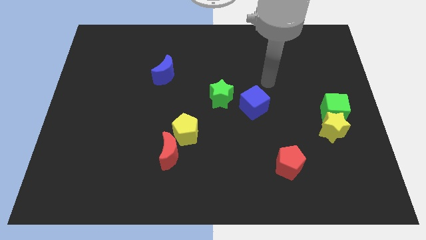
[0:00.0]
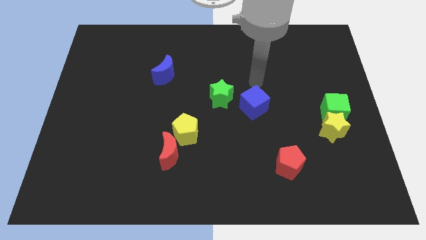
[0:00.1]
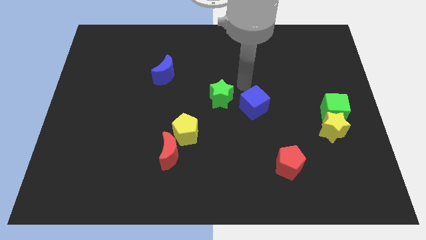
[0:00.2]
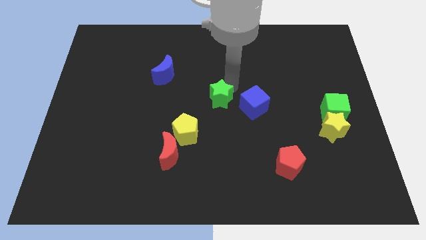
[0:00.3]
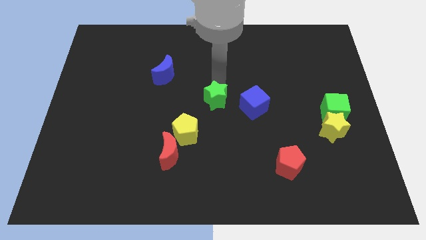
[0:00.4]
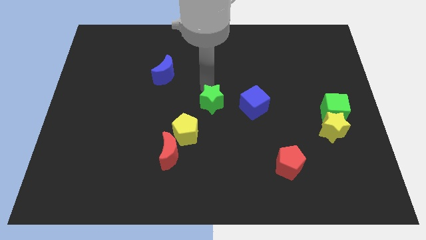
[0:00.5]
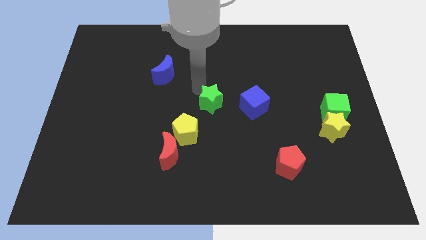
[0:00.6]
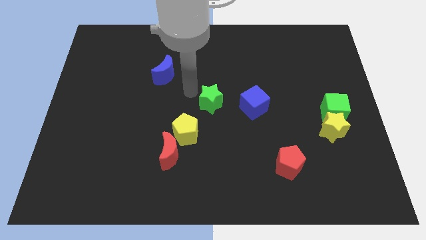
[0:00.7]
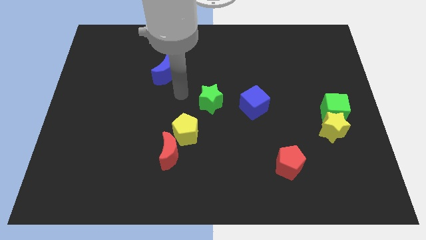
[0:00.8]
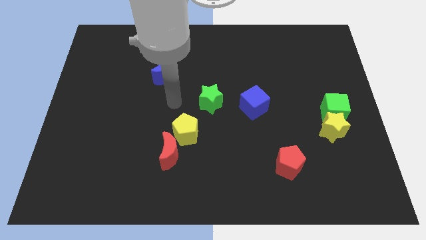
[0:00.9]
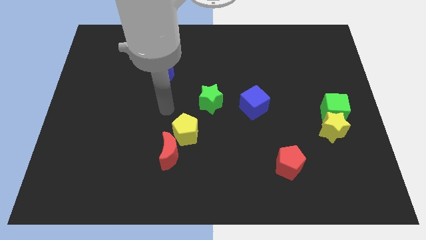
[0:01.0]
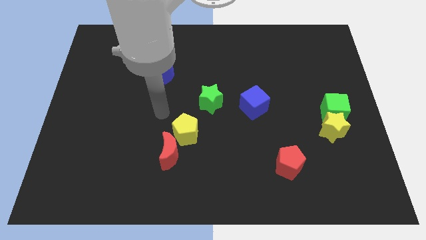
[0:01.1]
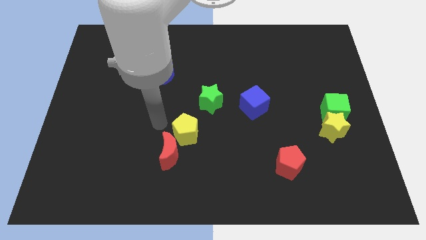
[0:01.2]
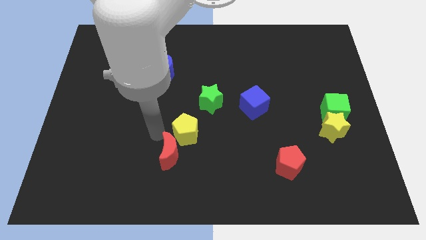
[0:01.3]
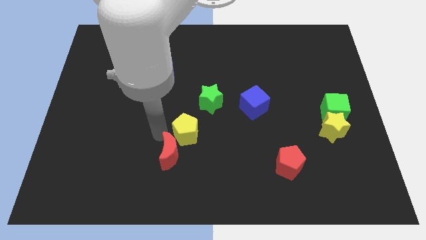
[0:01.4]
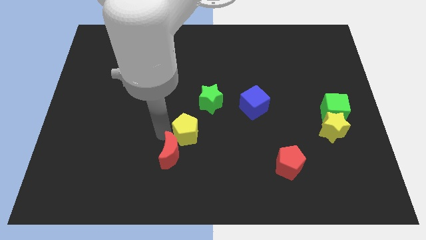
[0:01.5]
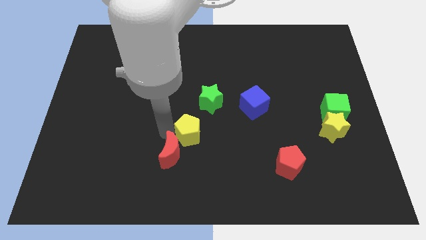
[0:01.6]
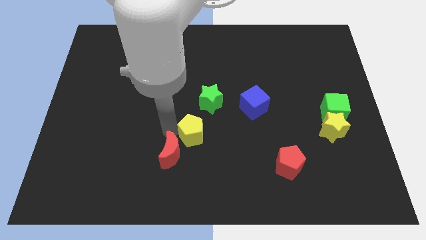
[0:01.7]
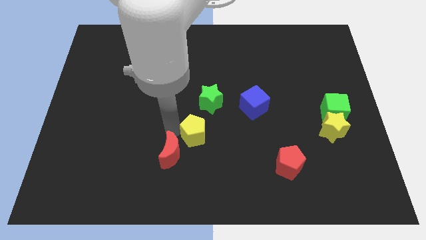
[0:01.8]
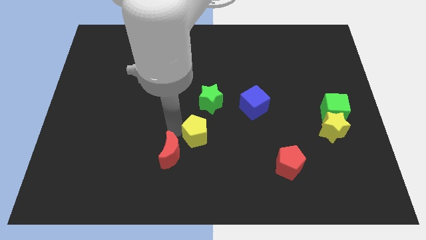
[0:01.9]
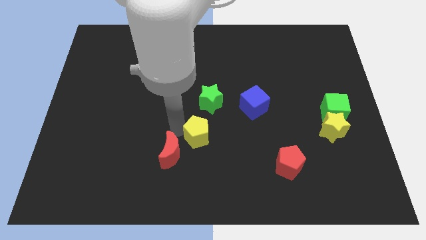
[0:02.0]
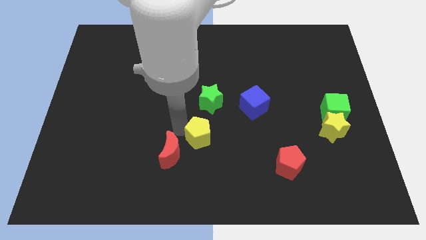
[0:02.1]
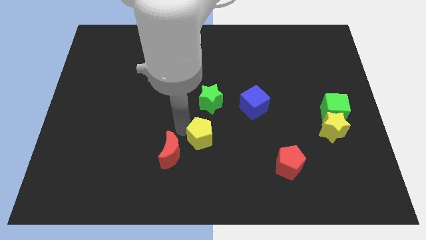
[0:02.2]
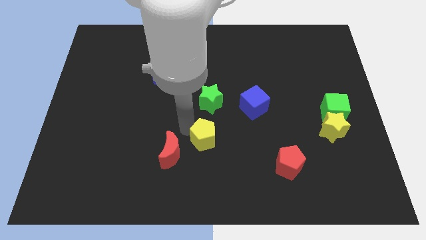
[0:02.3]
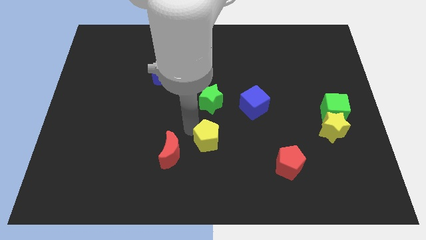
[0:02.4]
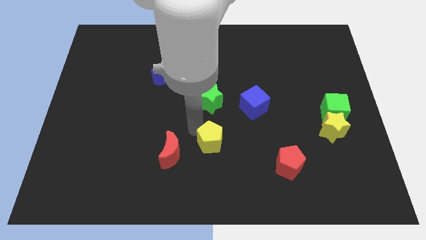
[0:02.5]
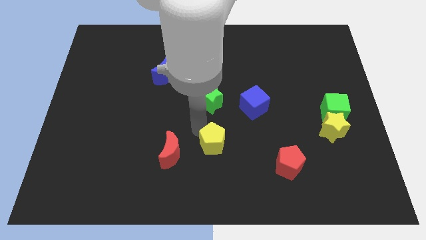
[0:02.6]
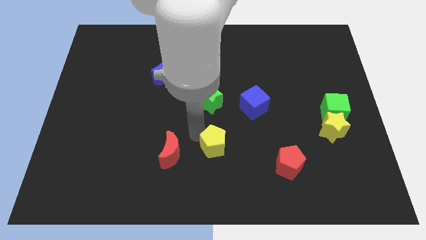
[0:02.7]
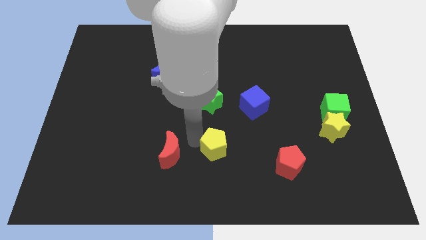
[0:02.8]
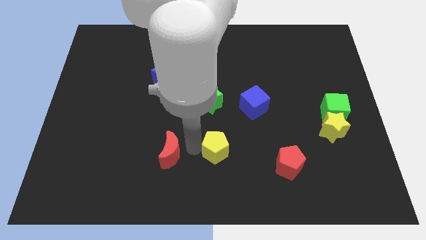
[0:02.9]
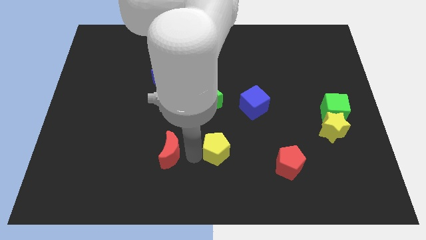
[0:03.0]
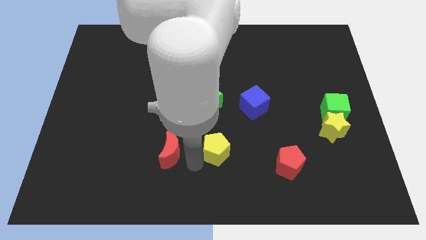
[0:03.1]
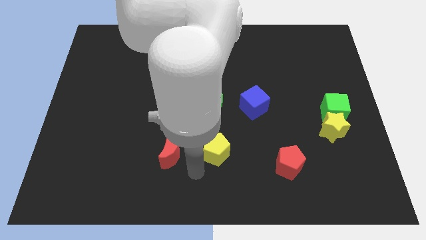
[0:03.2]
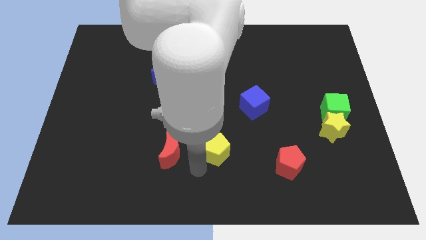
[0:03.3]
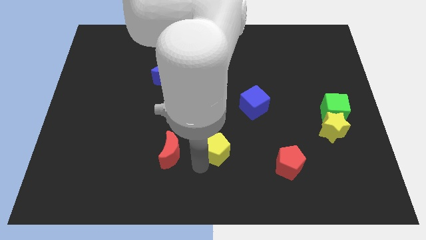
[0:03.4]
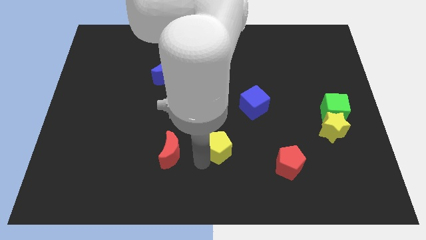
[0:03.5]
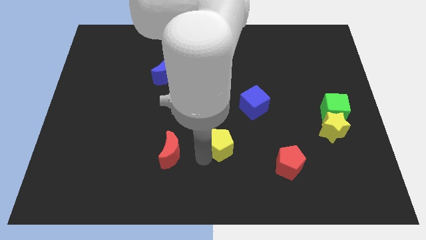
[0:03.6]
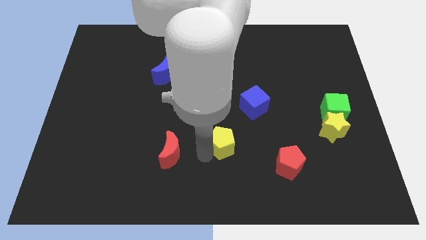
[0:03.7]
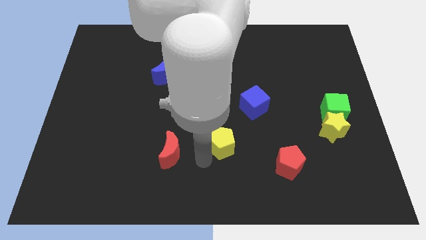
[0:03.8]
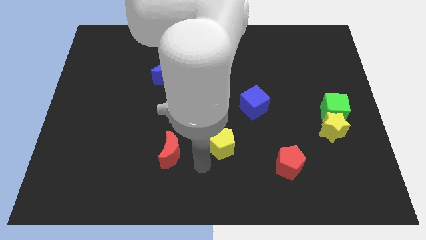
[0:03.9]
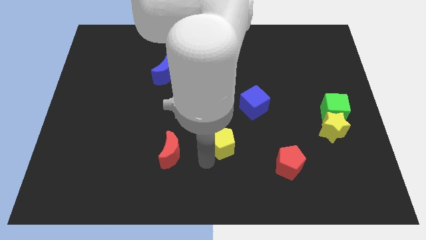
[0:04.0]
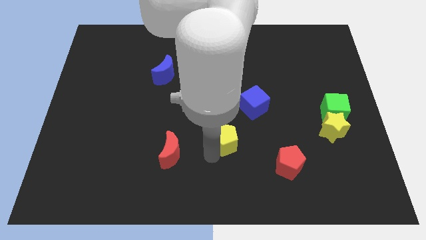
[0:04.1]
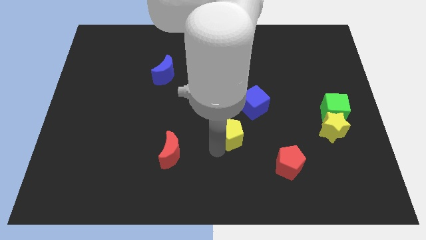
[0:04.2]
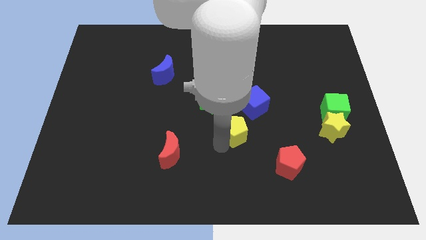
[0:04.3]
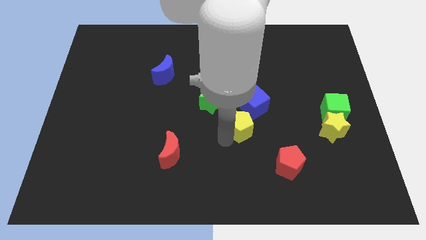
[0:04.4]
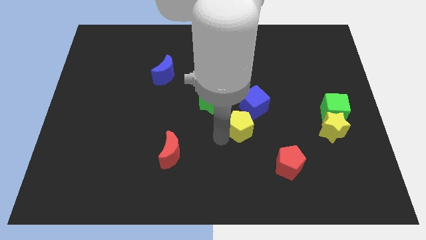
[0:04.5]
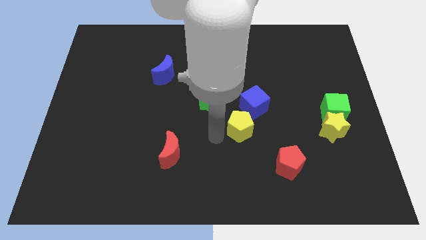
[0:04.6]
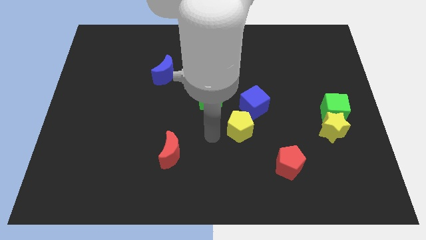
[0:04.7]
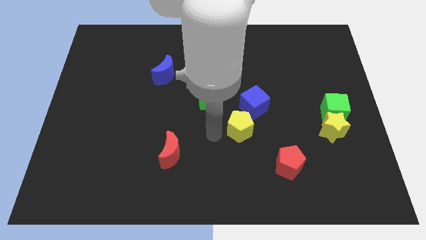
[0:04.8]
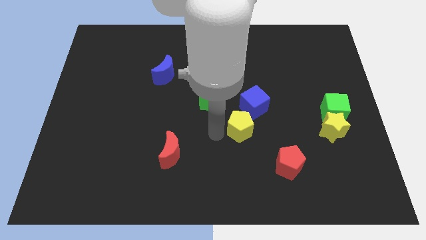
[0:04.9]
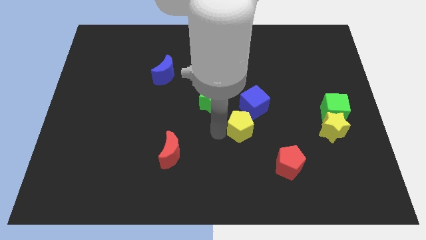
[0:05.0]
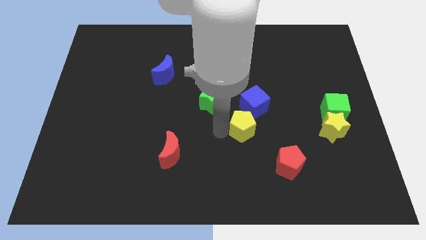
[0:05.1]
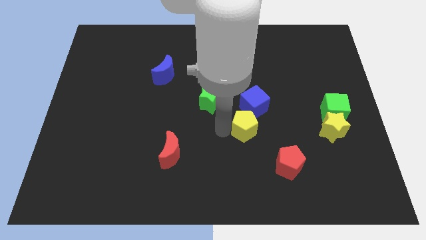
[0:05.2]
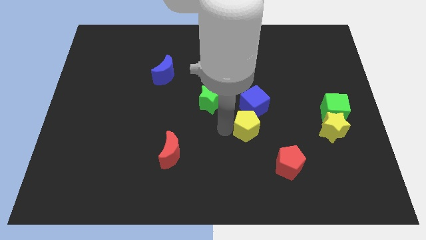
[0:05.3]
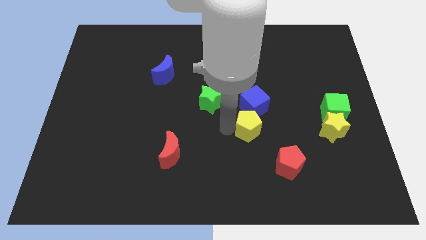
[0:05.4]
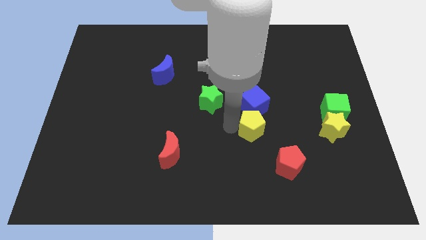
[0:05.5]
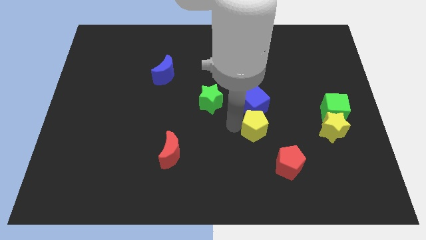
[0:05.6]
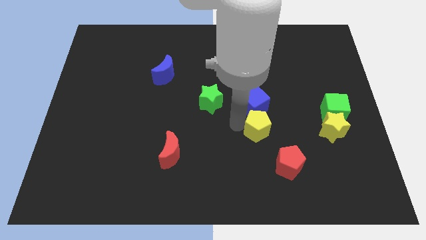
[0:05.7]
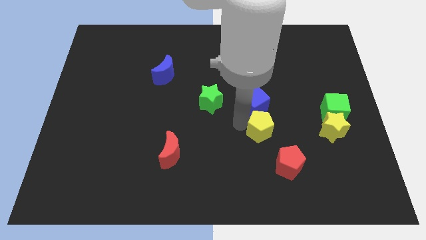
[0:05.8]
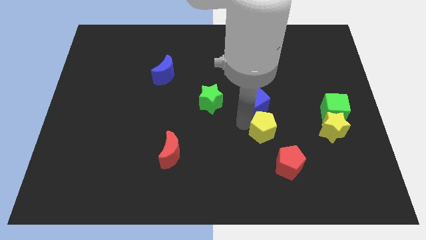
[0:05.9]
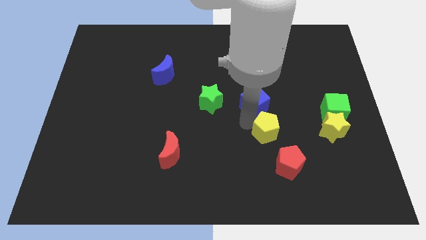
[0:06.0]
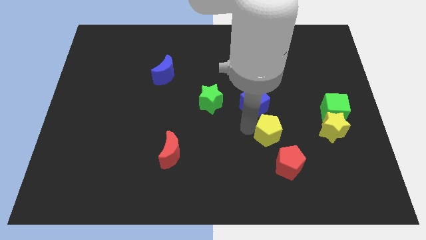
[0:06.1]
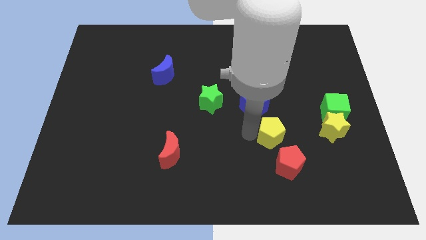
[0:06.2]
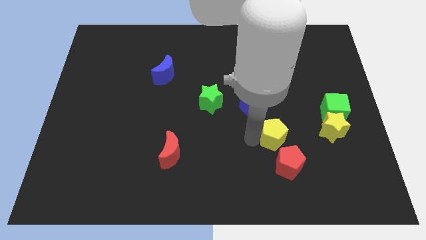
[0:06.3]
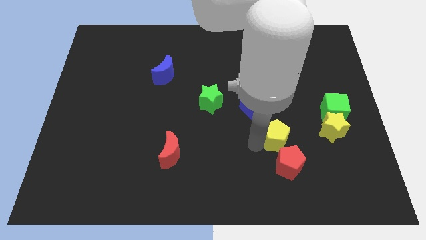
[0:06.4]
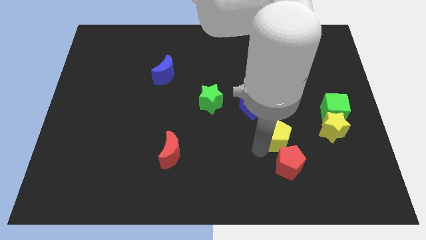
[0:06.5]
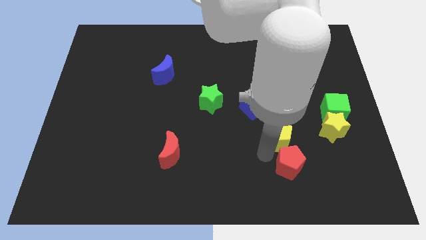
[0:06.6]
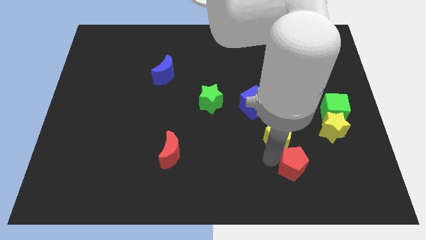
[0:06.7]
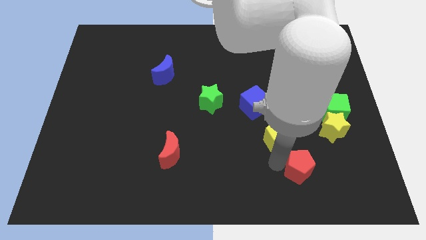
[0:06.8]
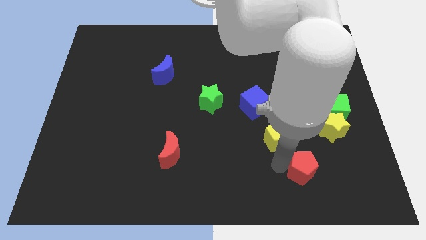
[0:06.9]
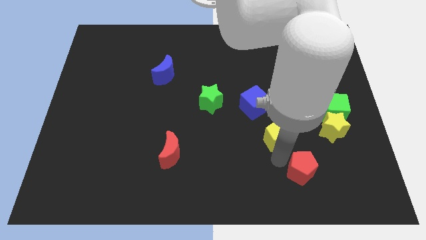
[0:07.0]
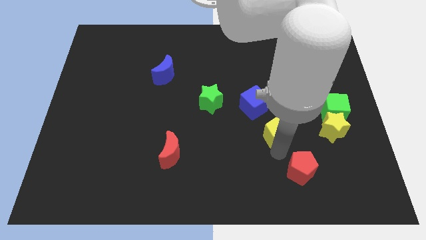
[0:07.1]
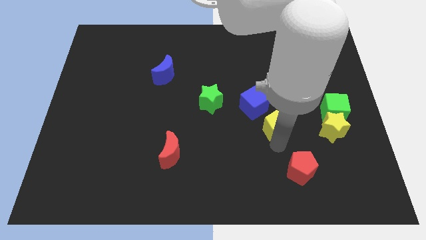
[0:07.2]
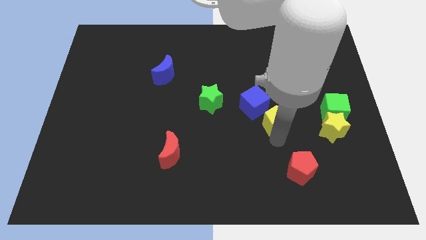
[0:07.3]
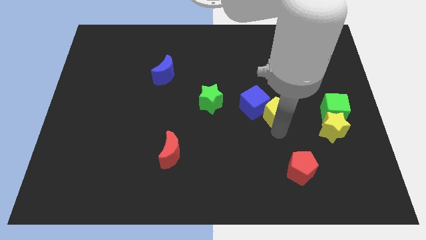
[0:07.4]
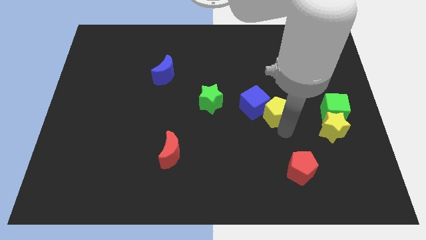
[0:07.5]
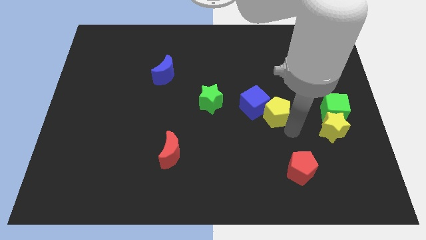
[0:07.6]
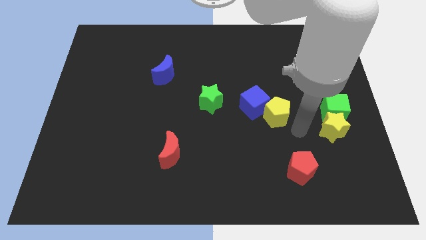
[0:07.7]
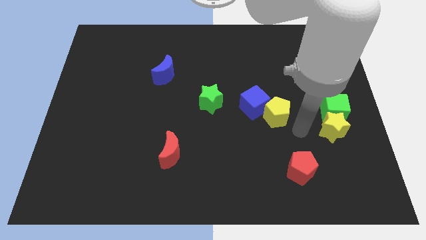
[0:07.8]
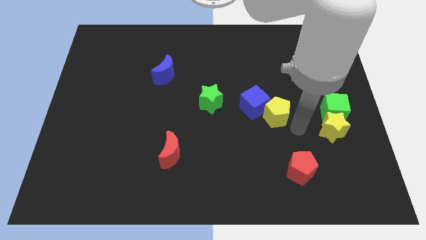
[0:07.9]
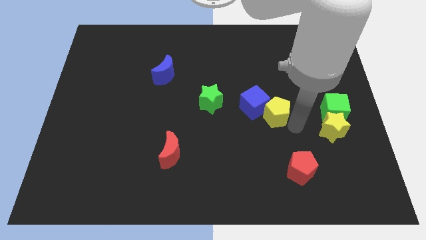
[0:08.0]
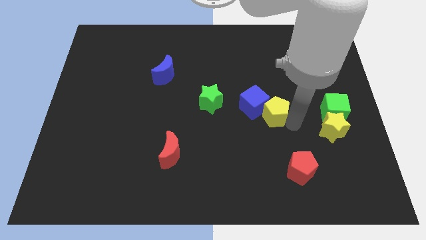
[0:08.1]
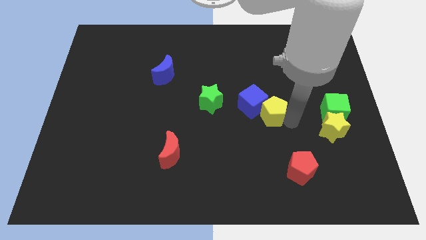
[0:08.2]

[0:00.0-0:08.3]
put the yellow pentagon to the right of the green star
